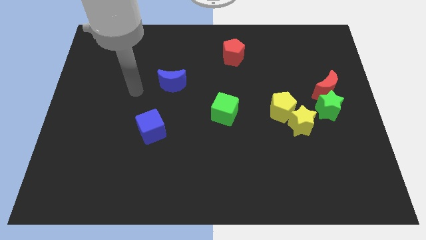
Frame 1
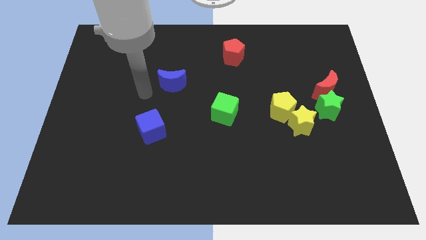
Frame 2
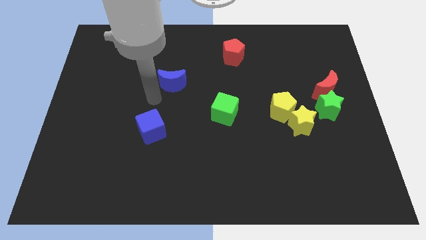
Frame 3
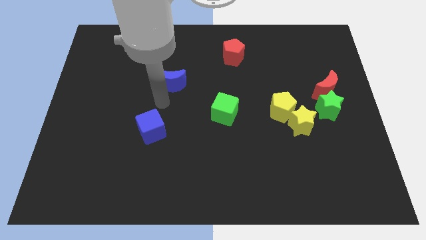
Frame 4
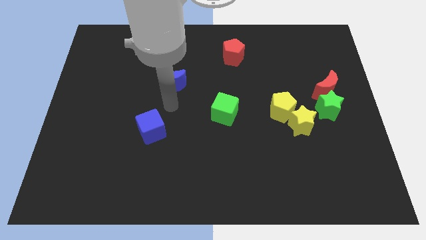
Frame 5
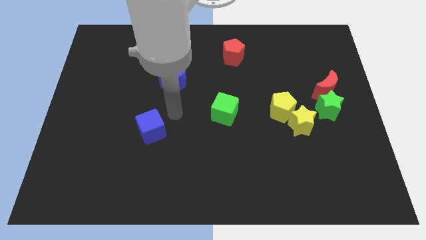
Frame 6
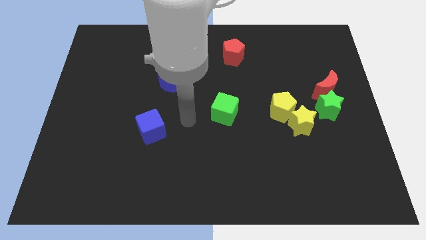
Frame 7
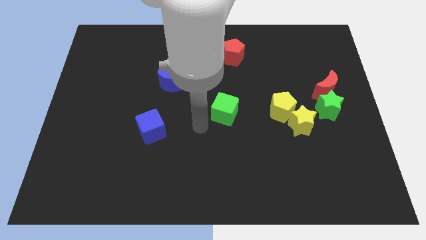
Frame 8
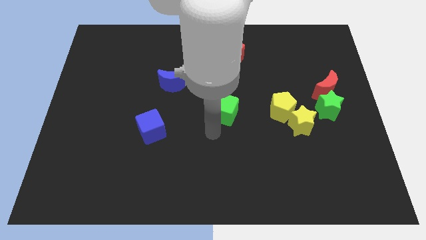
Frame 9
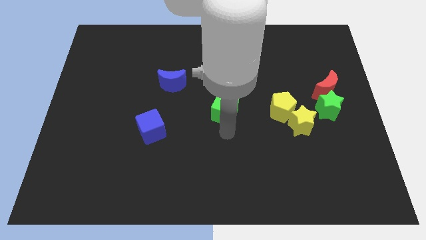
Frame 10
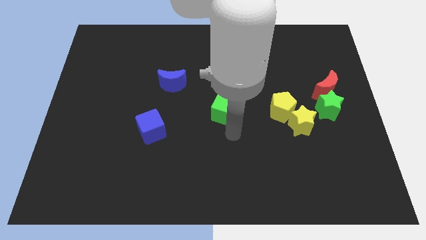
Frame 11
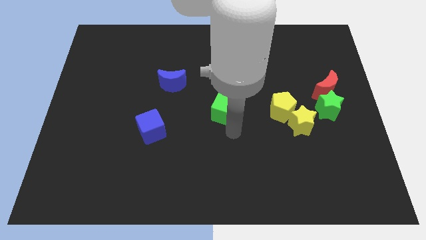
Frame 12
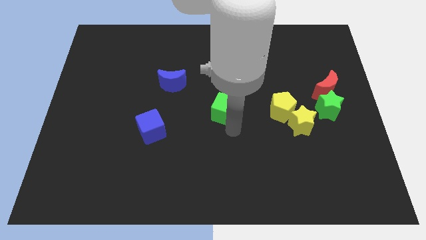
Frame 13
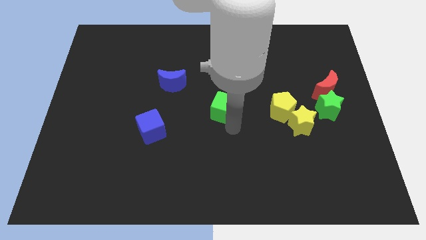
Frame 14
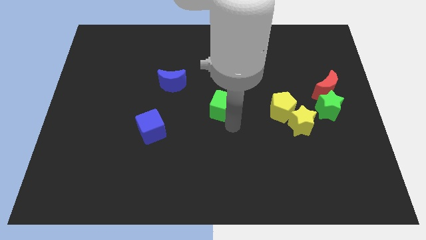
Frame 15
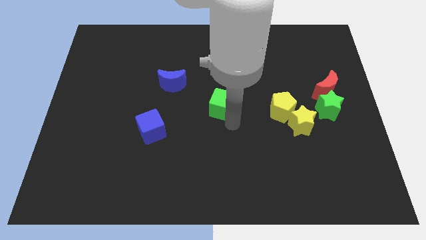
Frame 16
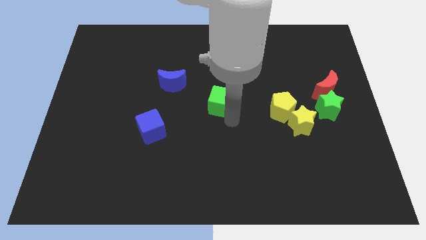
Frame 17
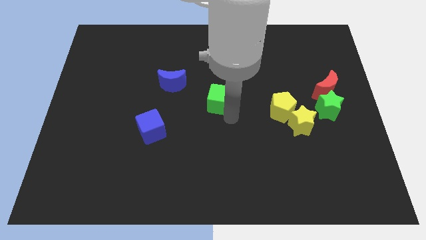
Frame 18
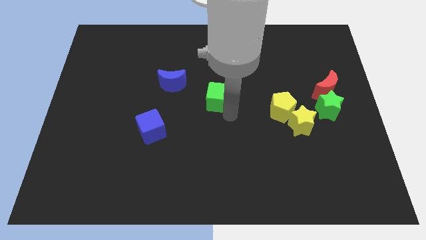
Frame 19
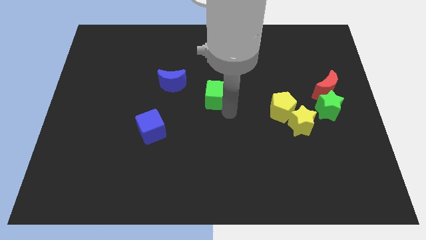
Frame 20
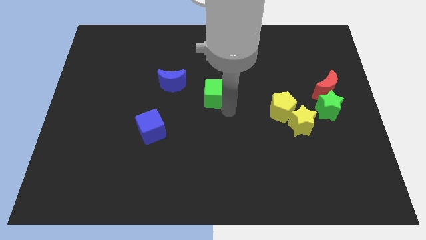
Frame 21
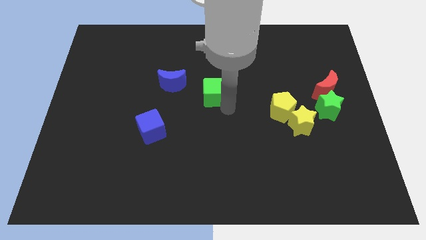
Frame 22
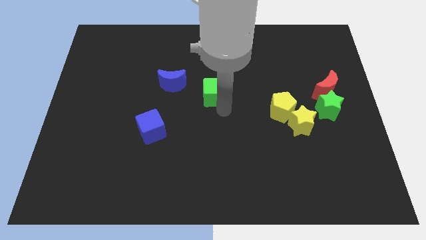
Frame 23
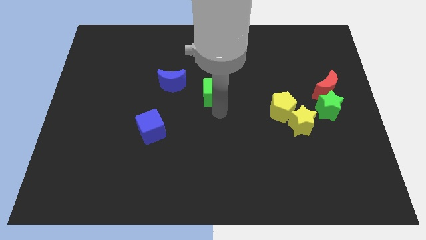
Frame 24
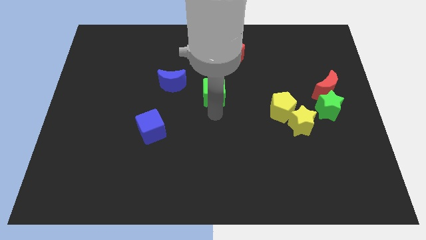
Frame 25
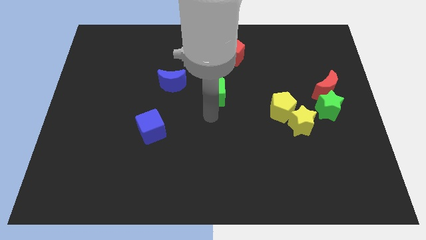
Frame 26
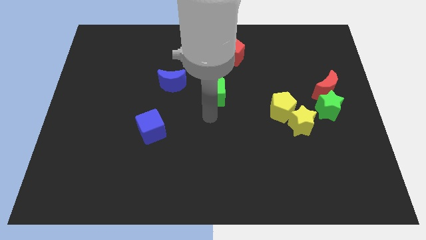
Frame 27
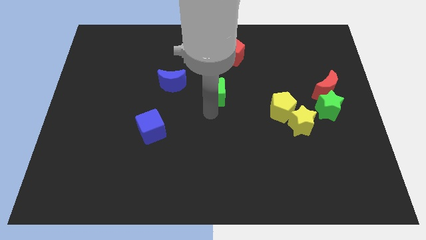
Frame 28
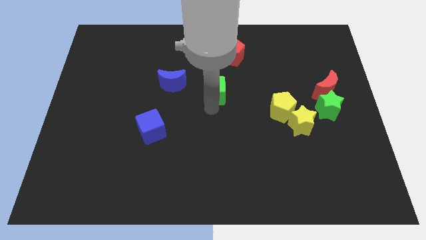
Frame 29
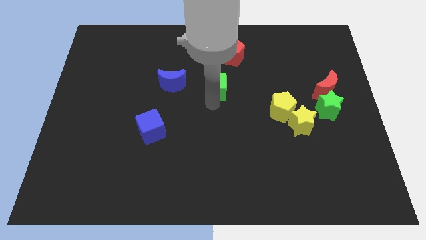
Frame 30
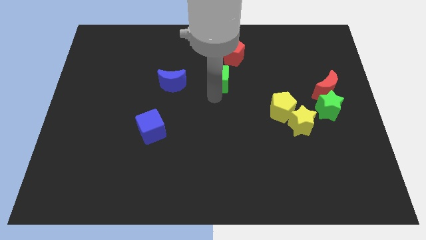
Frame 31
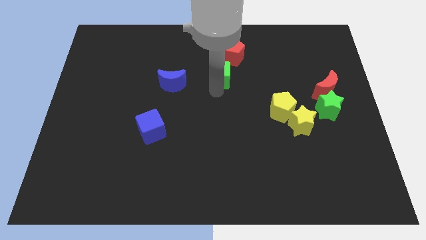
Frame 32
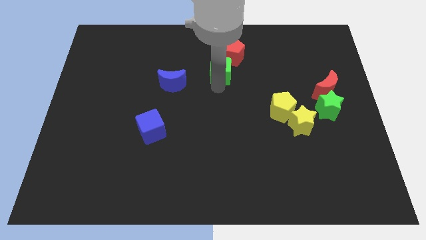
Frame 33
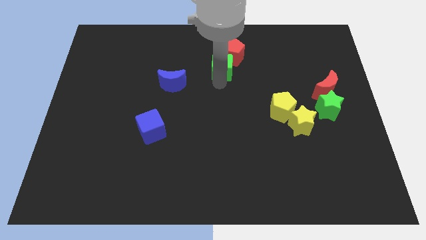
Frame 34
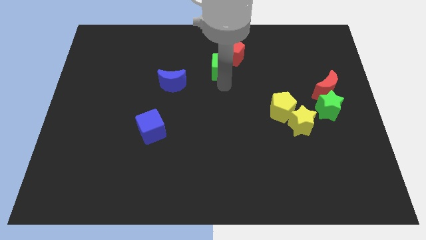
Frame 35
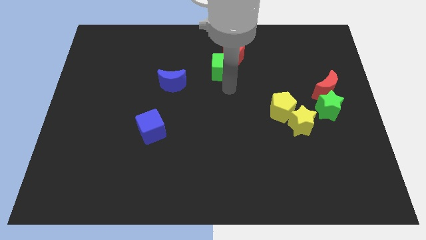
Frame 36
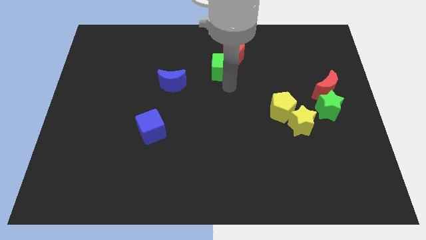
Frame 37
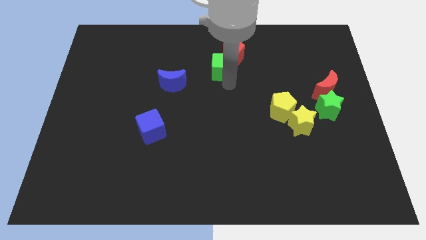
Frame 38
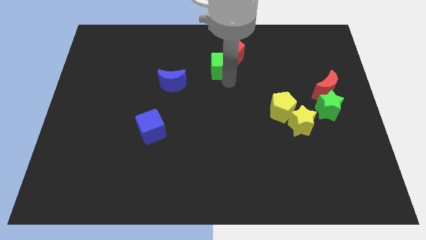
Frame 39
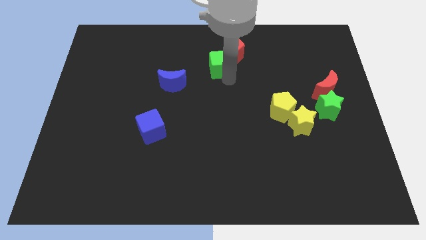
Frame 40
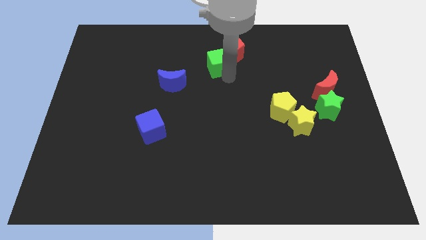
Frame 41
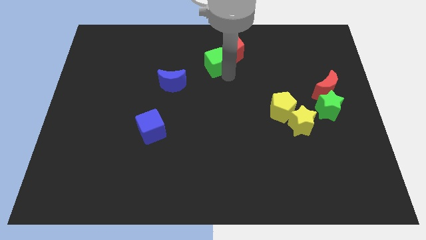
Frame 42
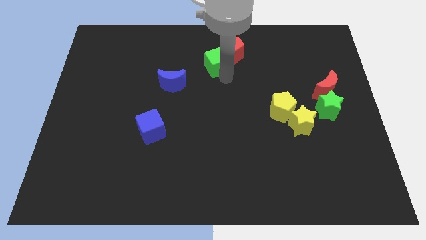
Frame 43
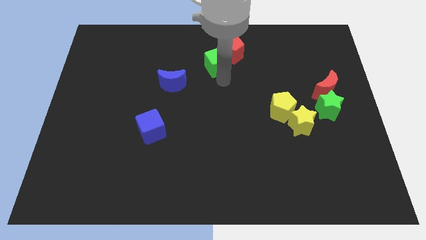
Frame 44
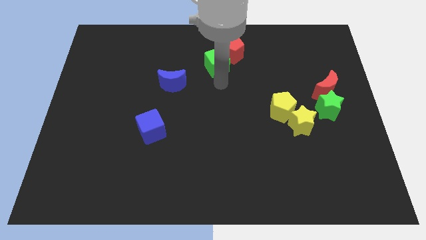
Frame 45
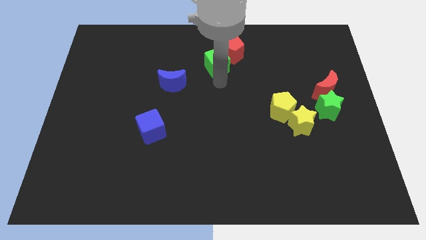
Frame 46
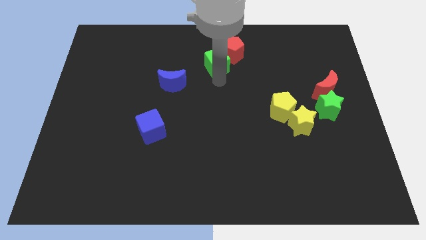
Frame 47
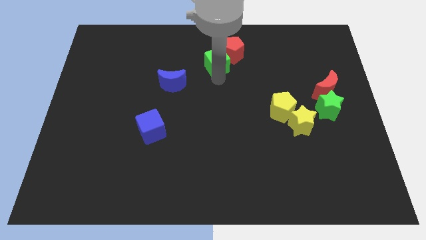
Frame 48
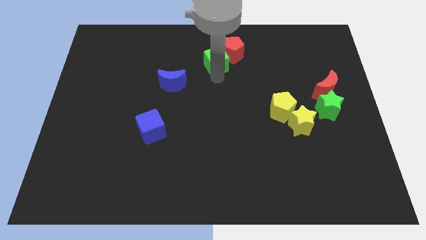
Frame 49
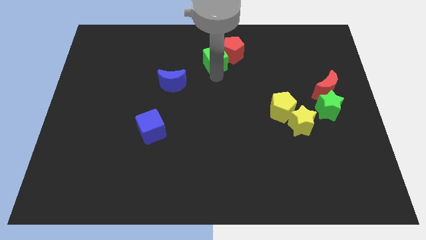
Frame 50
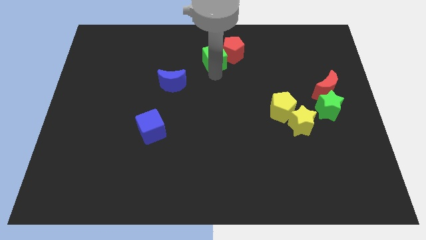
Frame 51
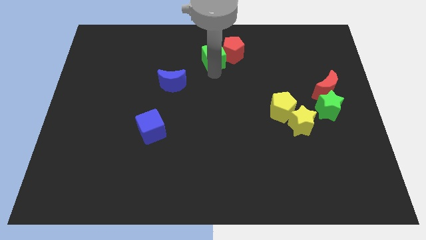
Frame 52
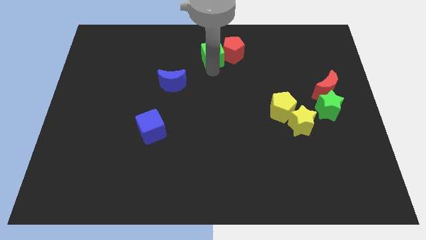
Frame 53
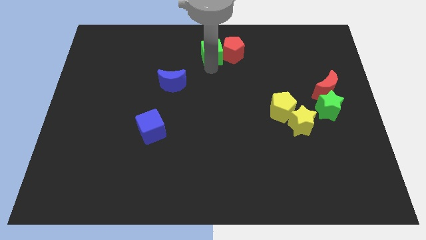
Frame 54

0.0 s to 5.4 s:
move the green cube to the top
